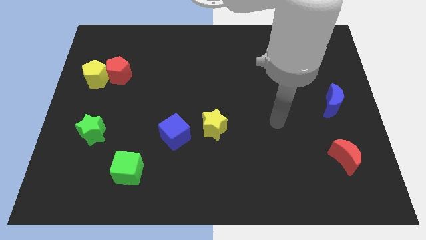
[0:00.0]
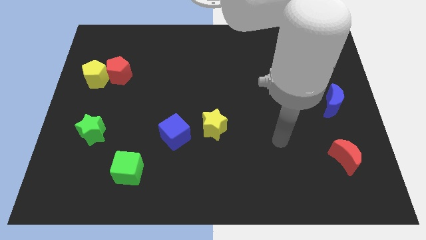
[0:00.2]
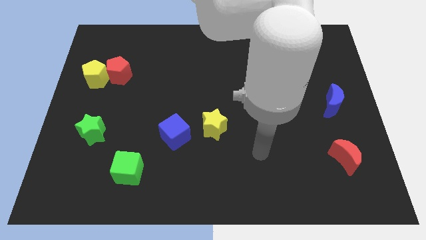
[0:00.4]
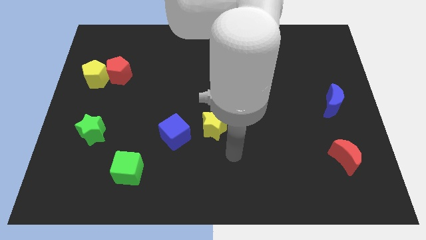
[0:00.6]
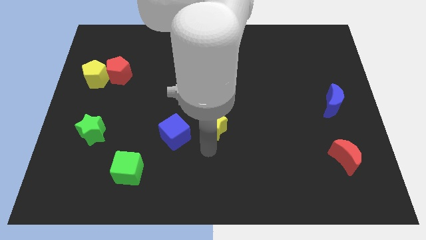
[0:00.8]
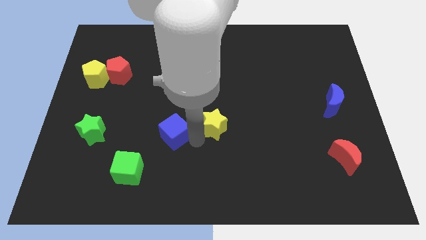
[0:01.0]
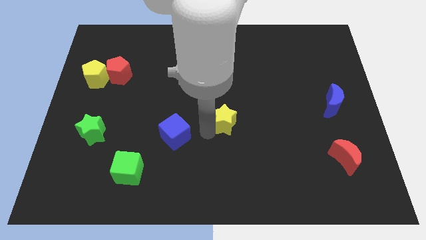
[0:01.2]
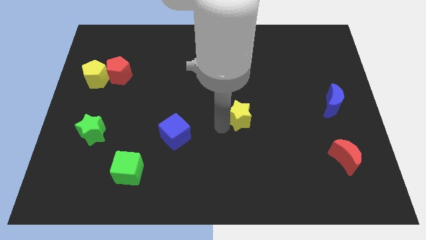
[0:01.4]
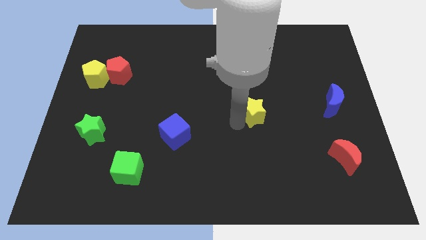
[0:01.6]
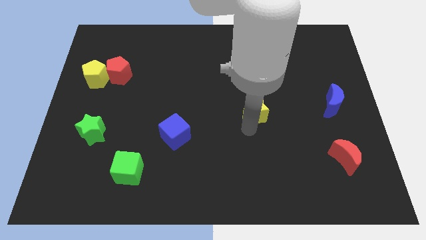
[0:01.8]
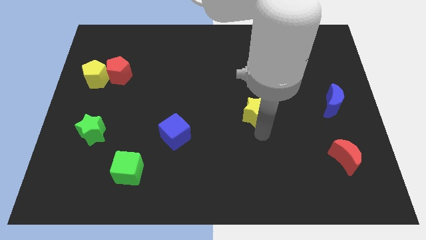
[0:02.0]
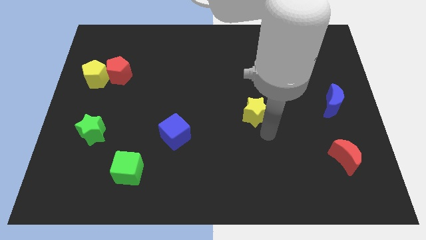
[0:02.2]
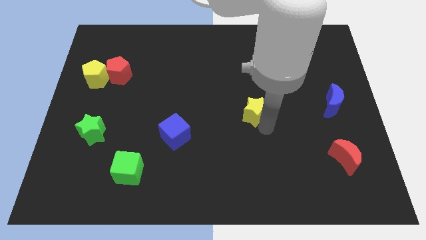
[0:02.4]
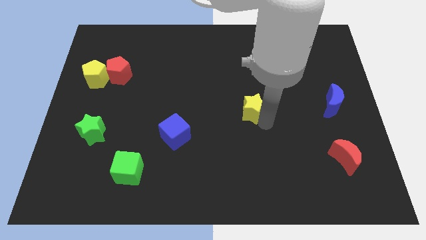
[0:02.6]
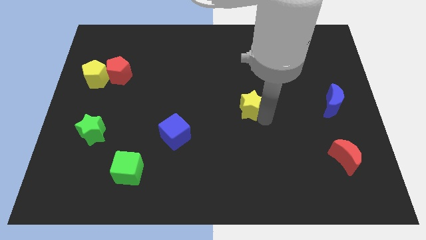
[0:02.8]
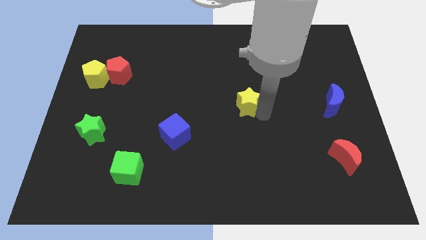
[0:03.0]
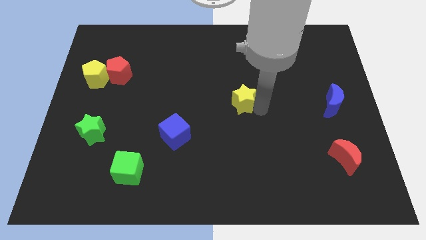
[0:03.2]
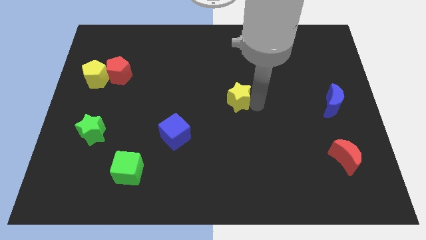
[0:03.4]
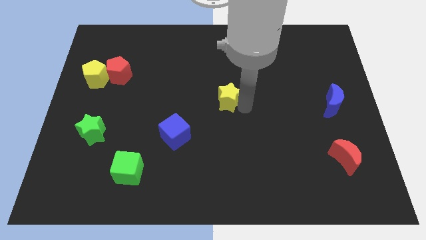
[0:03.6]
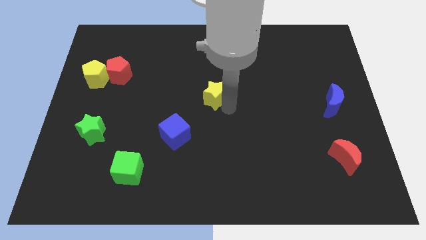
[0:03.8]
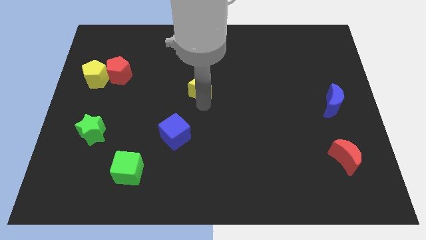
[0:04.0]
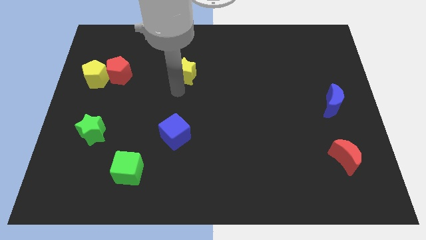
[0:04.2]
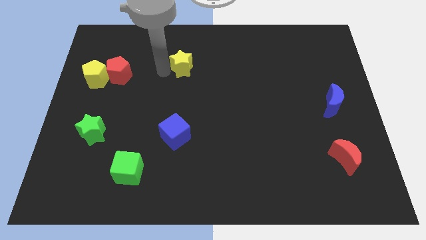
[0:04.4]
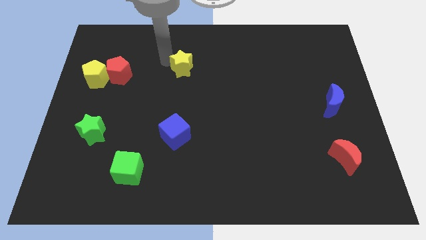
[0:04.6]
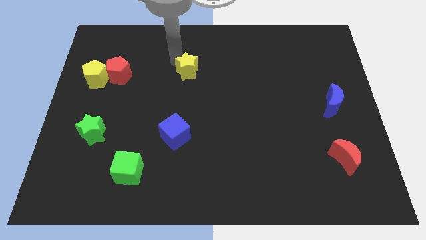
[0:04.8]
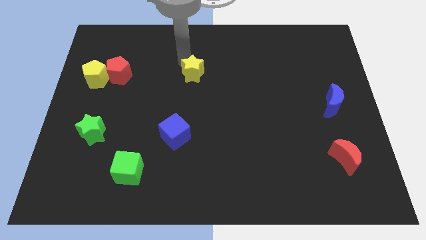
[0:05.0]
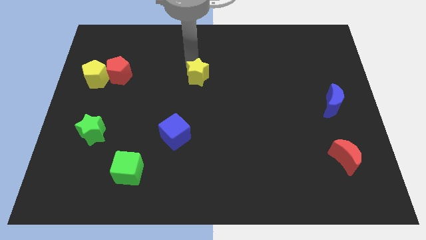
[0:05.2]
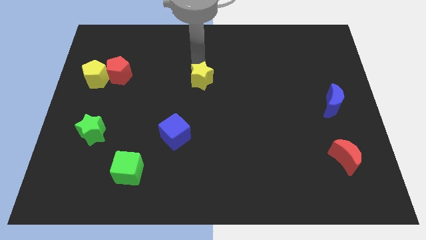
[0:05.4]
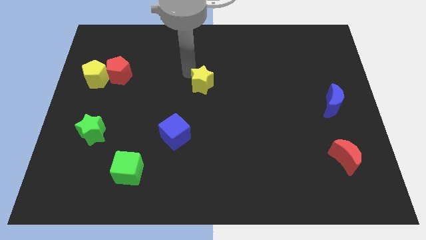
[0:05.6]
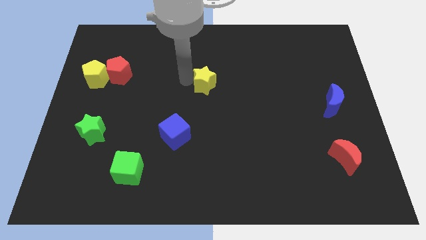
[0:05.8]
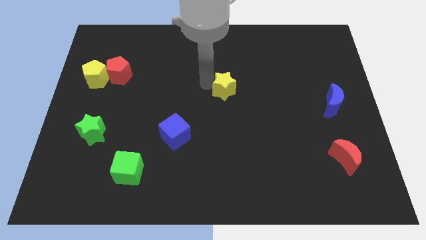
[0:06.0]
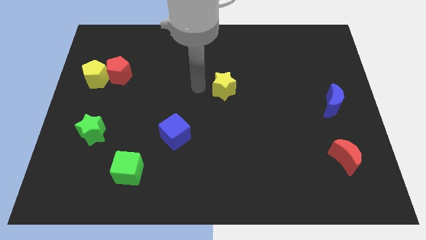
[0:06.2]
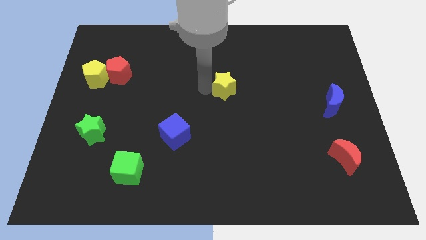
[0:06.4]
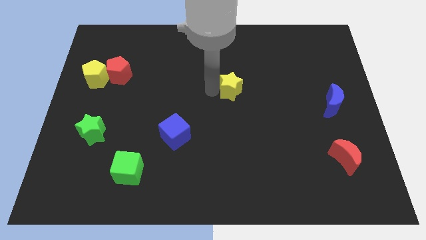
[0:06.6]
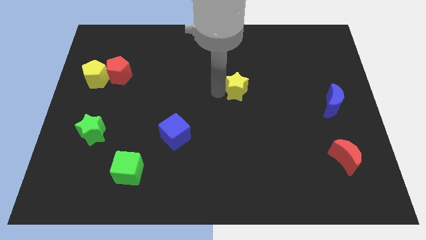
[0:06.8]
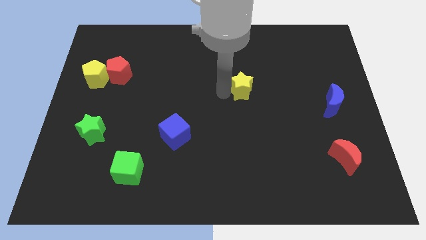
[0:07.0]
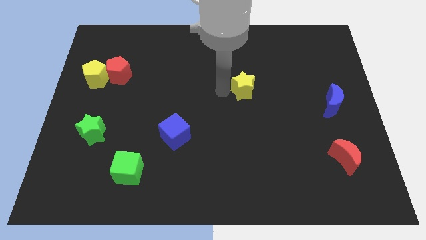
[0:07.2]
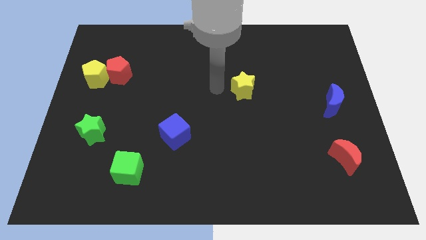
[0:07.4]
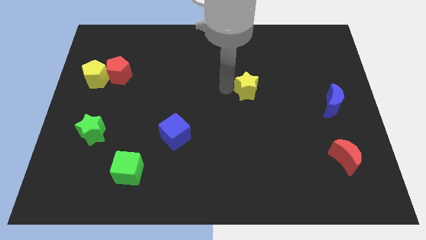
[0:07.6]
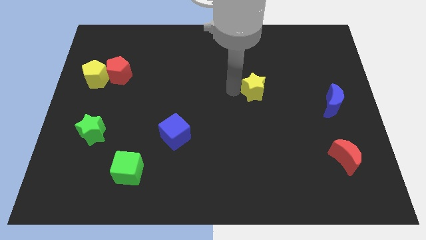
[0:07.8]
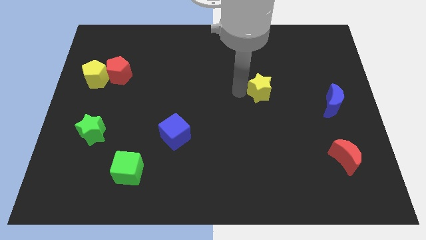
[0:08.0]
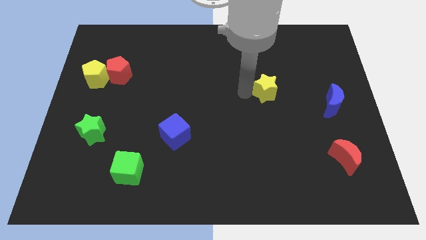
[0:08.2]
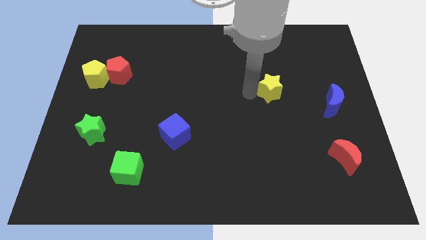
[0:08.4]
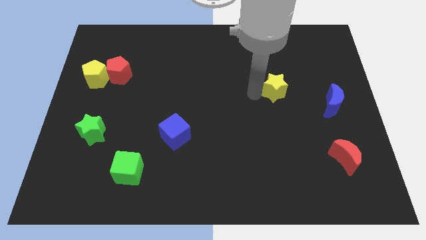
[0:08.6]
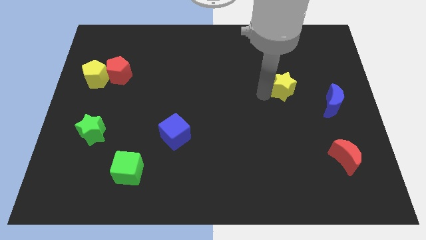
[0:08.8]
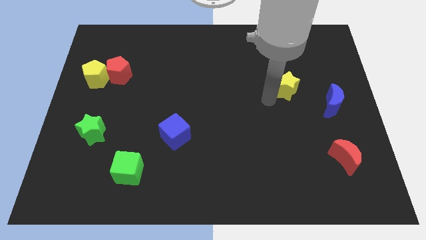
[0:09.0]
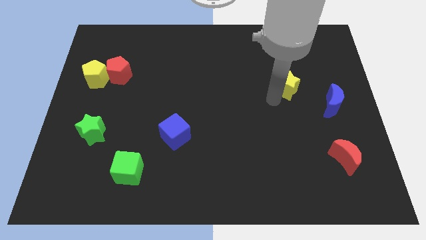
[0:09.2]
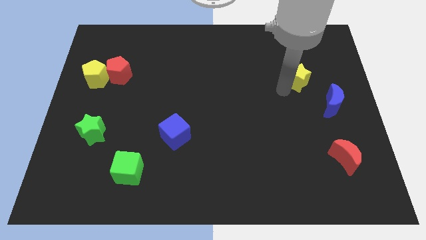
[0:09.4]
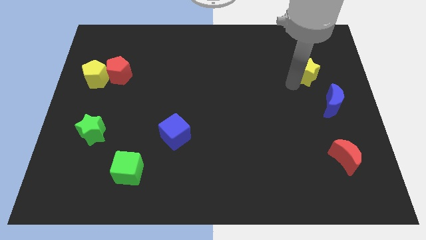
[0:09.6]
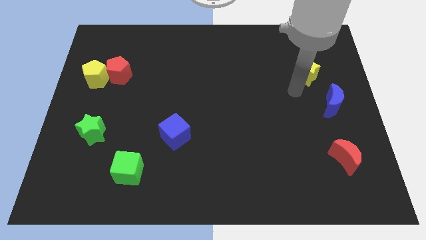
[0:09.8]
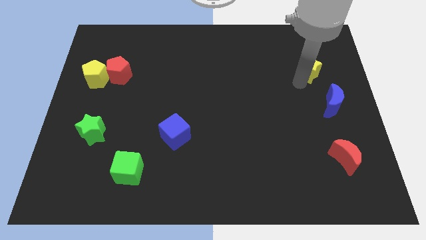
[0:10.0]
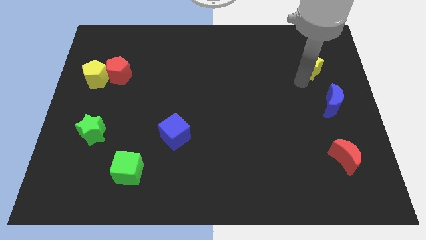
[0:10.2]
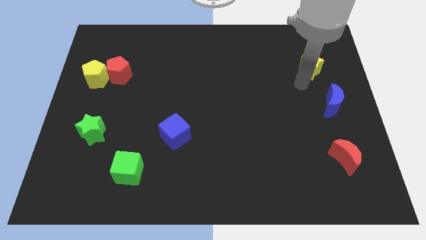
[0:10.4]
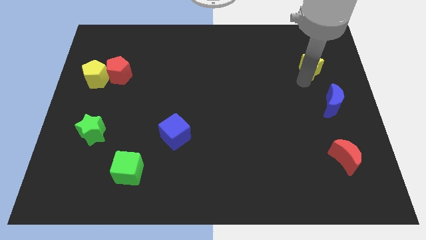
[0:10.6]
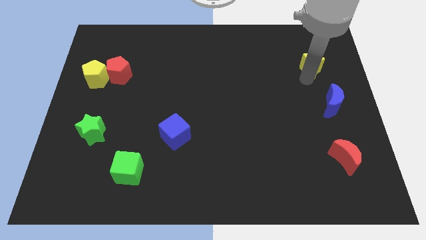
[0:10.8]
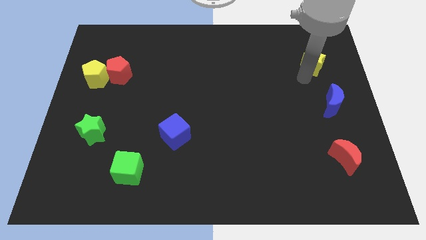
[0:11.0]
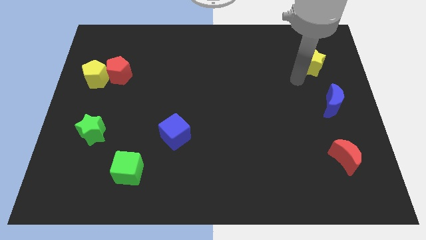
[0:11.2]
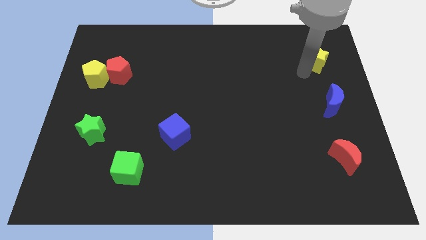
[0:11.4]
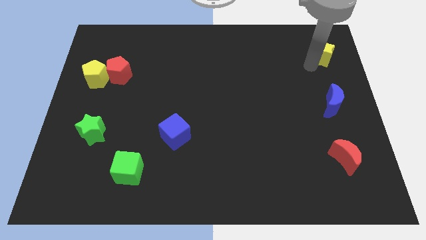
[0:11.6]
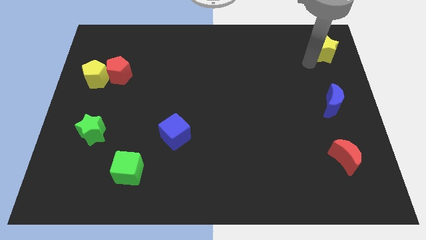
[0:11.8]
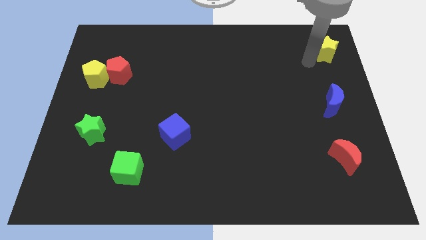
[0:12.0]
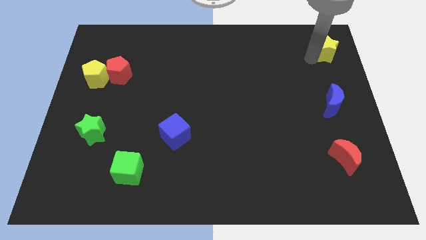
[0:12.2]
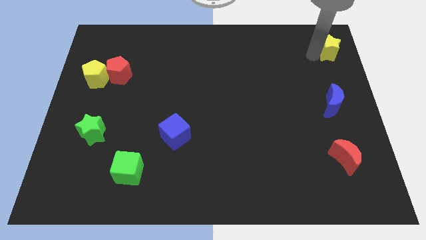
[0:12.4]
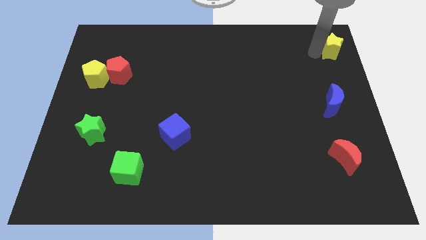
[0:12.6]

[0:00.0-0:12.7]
push the yellow star to the top right of the board
